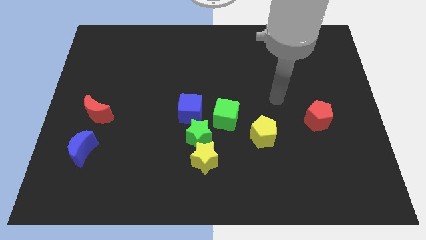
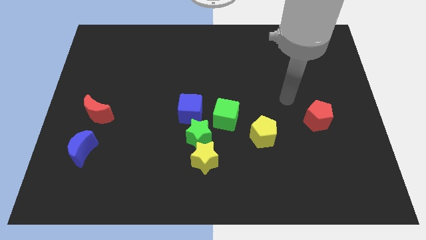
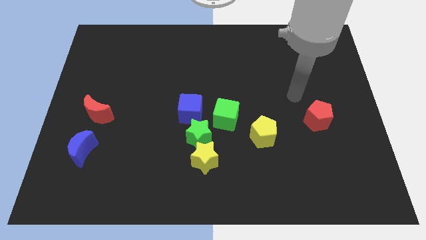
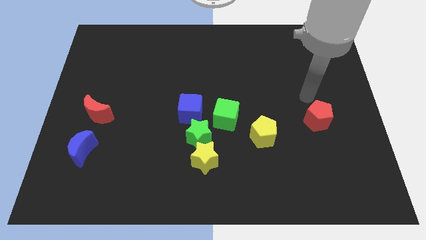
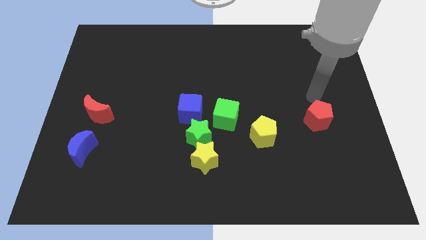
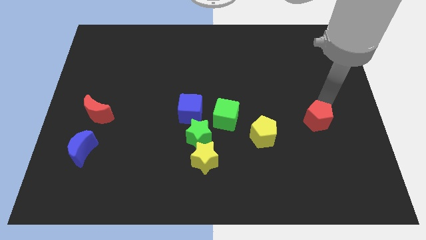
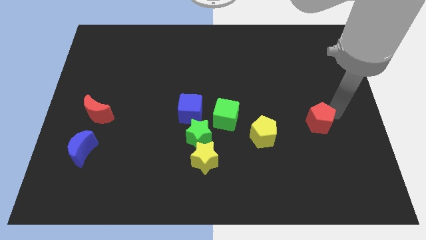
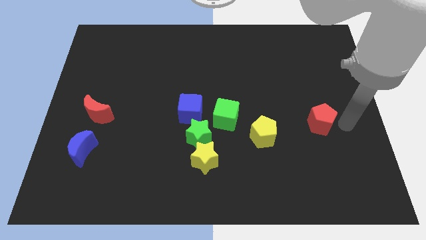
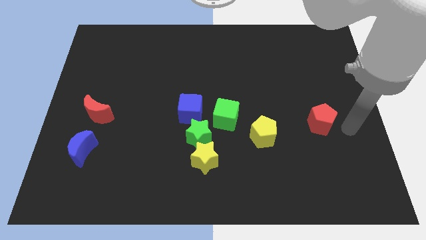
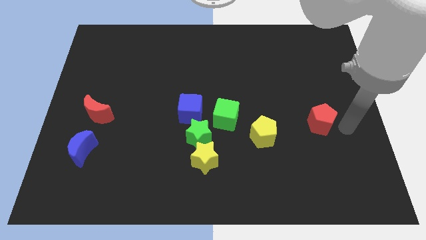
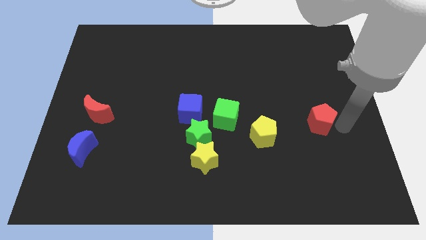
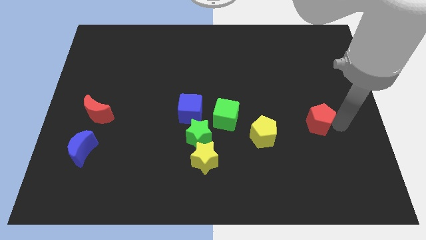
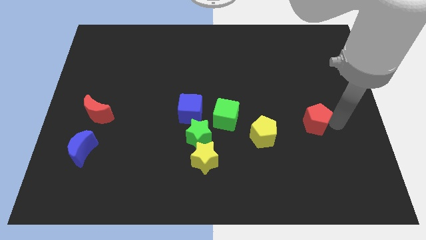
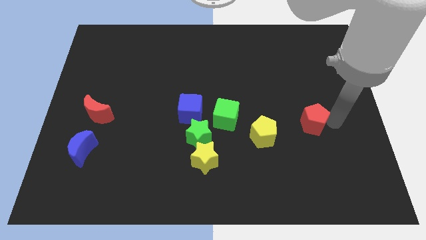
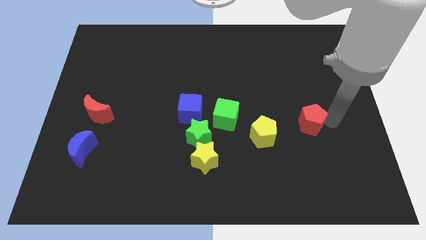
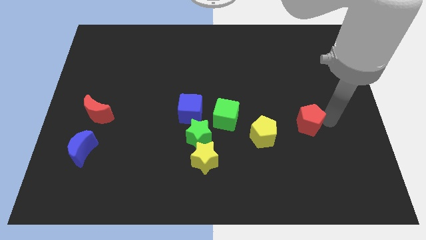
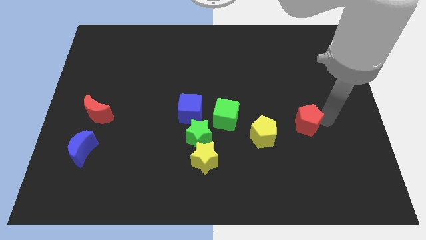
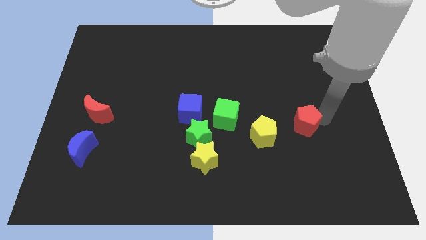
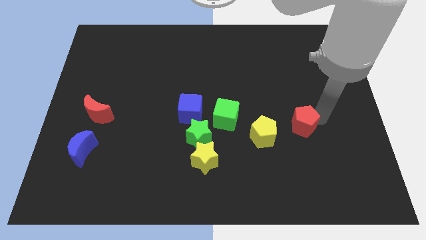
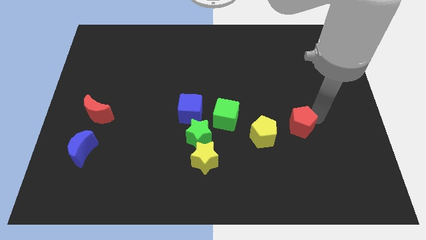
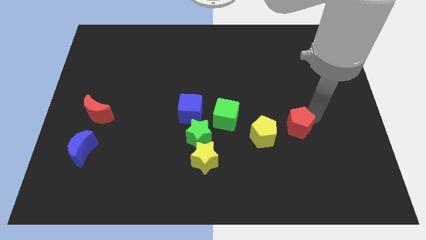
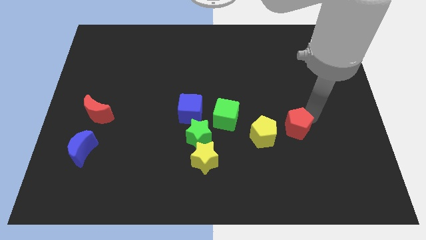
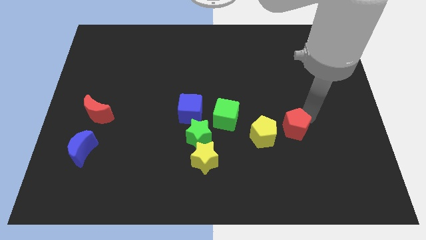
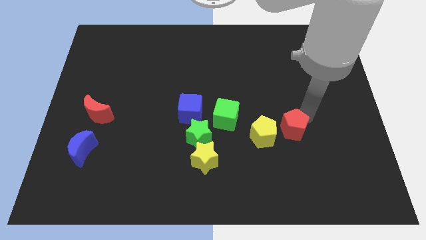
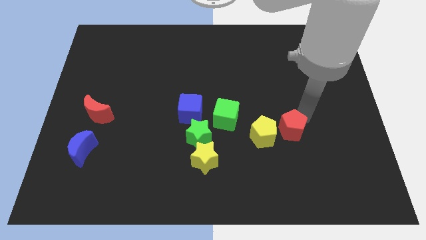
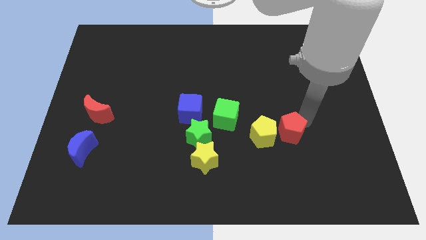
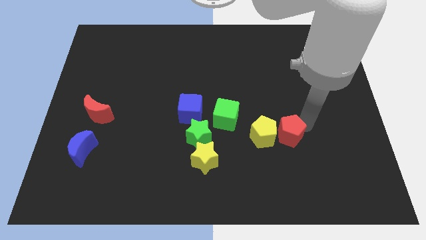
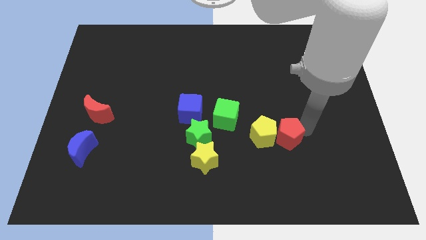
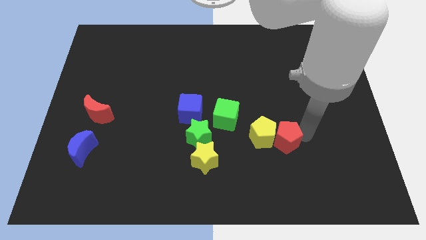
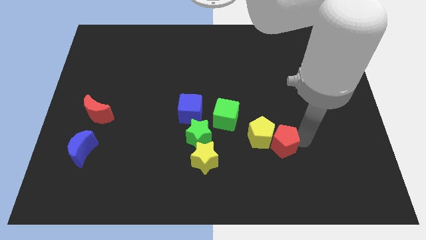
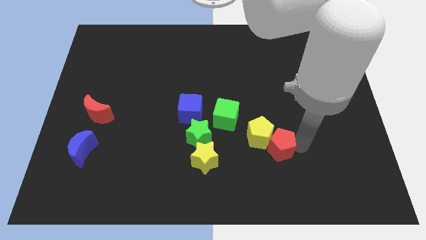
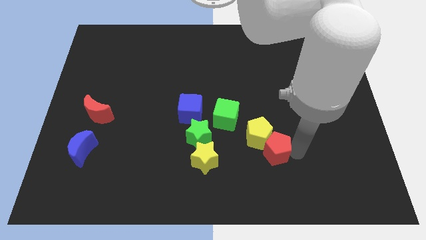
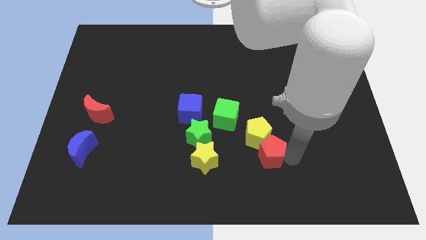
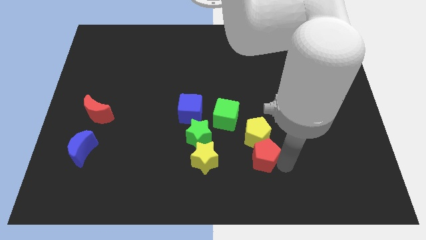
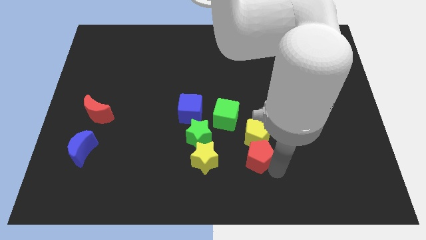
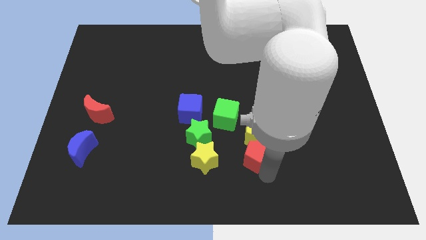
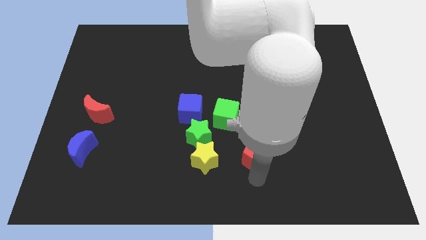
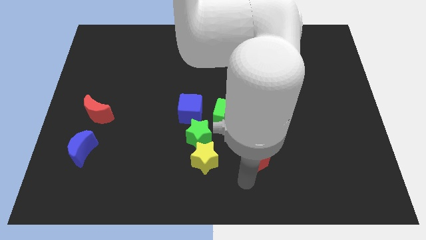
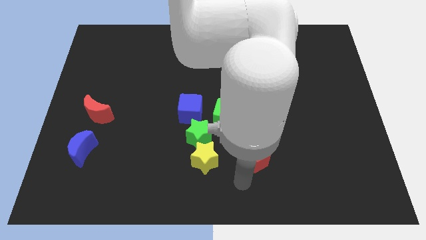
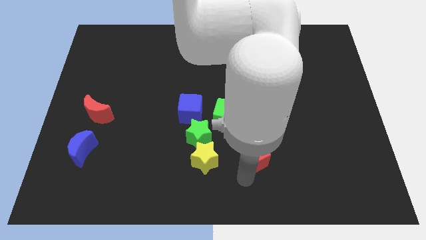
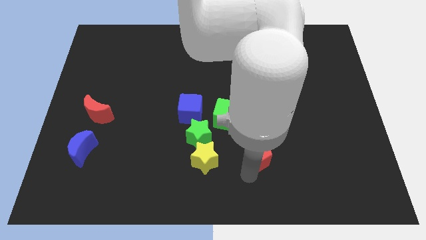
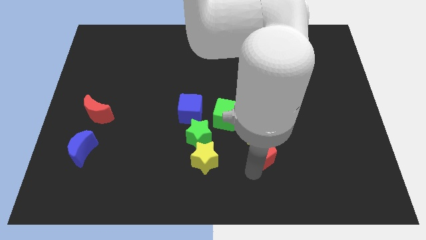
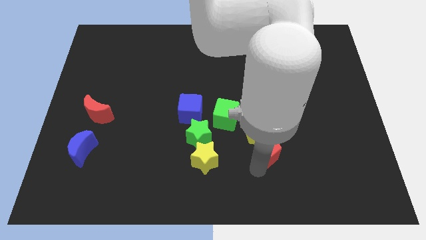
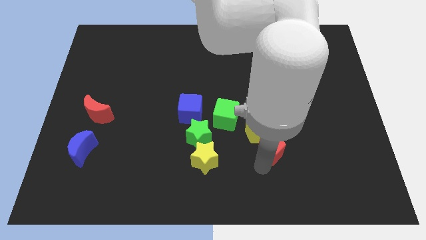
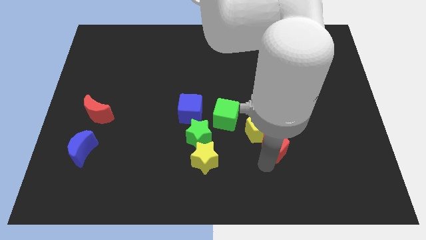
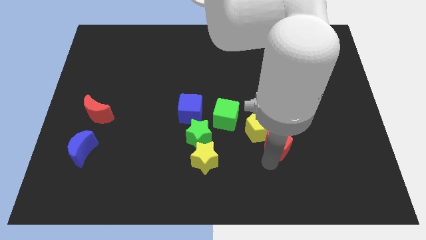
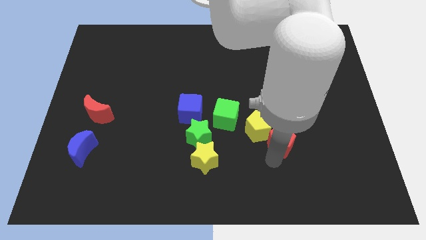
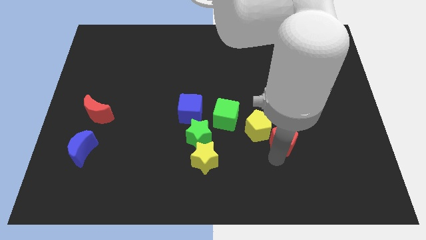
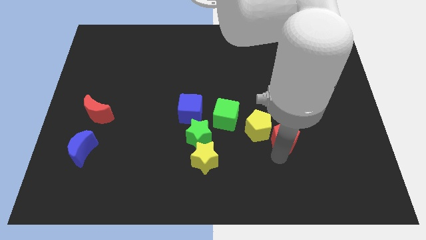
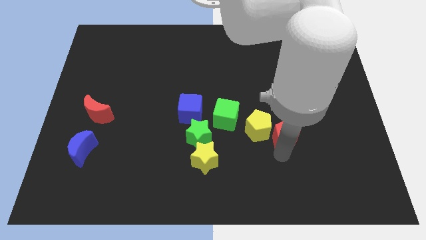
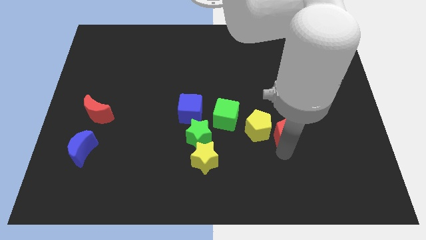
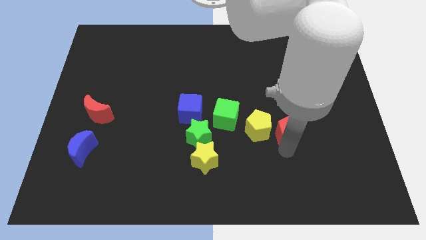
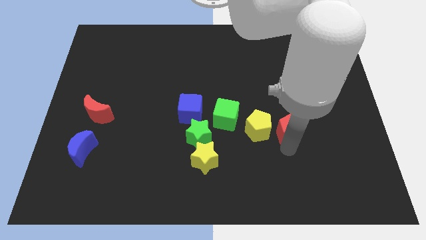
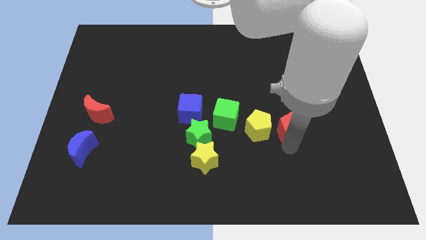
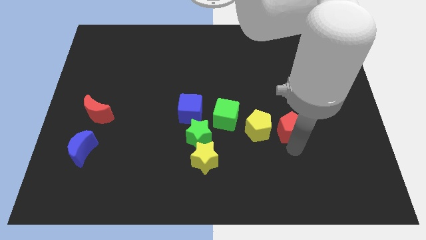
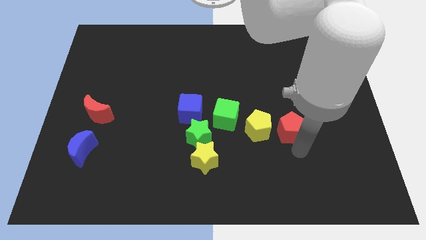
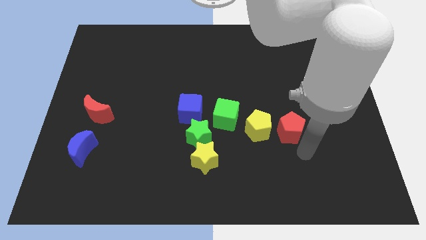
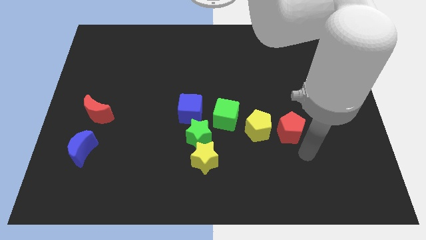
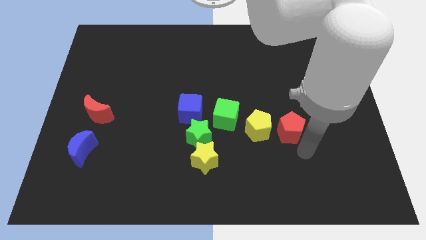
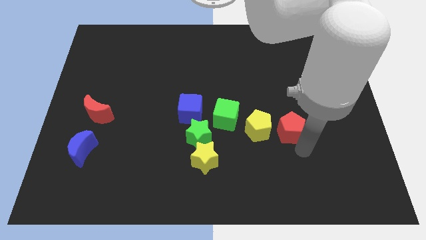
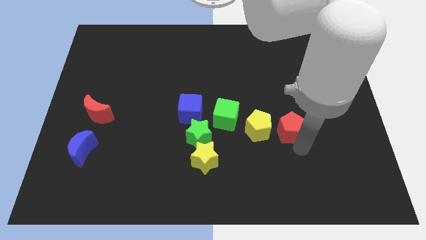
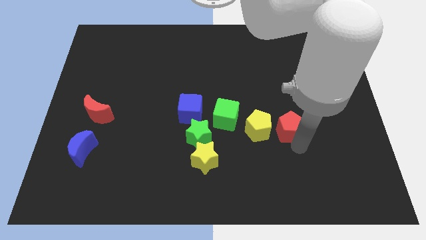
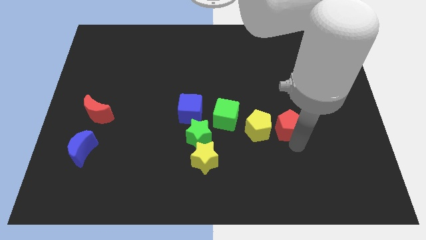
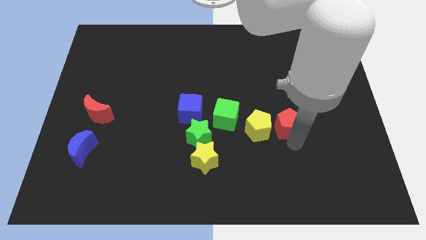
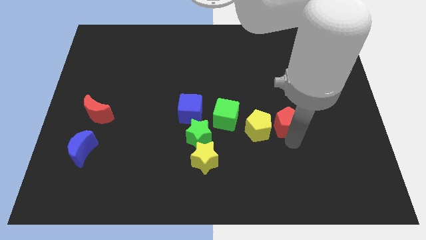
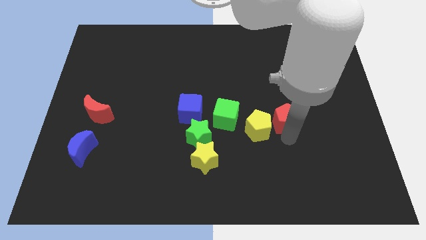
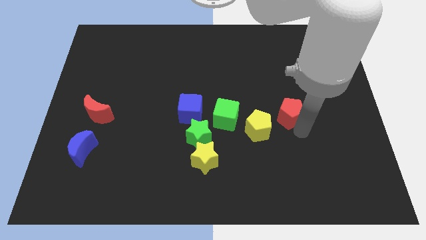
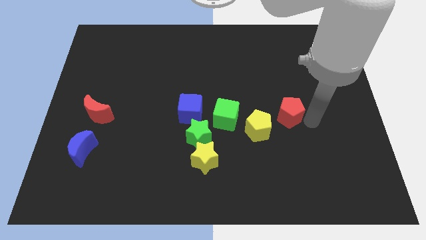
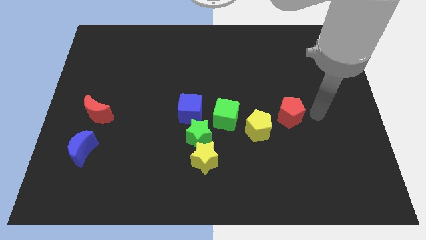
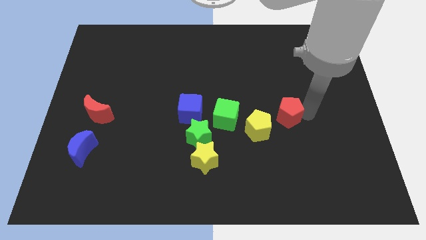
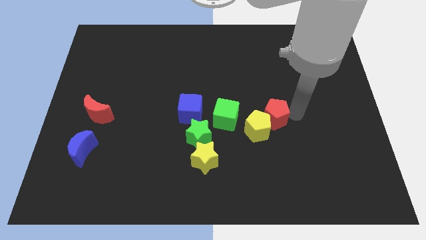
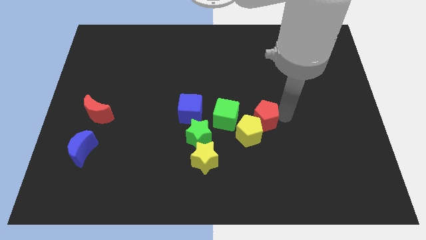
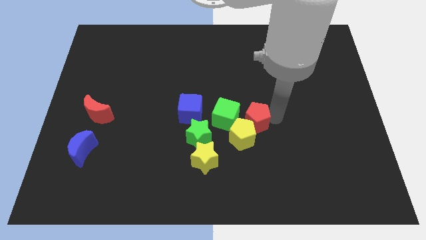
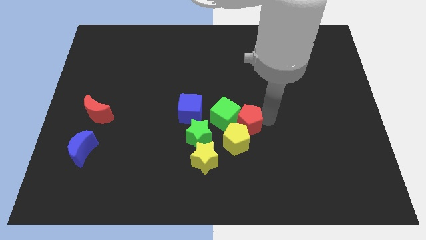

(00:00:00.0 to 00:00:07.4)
push the red pentagon close to the green cube
